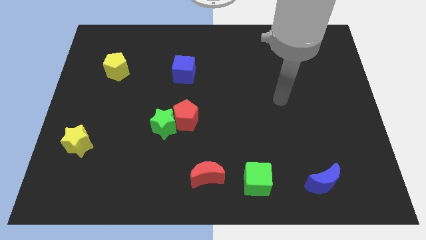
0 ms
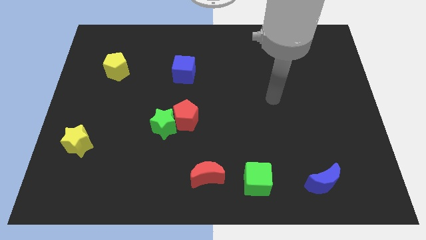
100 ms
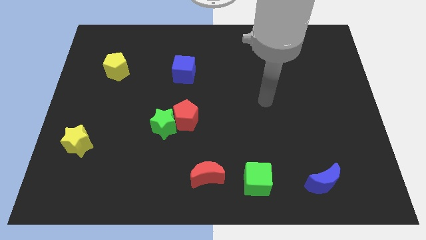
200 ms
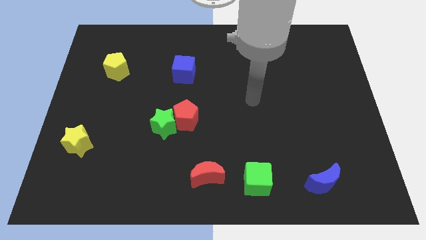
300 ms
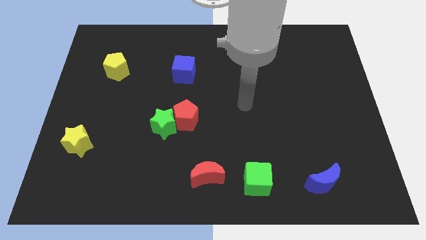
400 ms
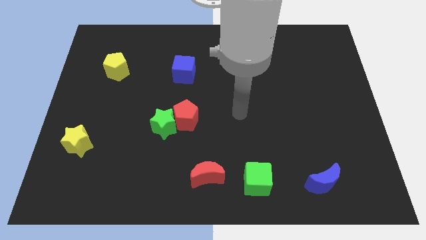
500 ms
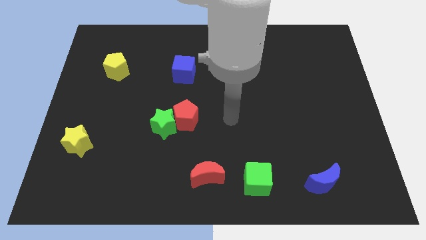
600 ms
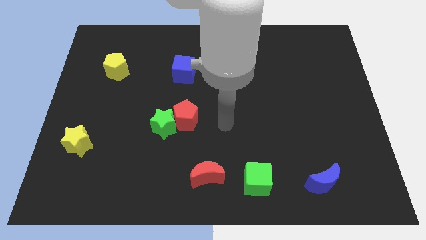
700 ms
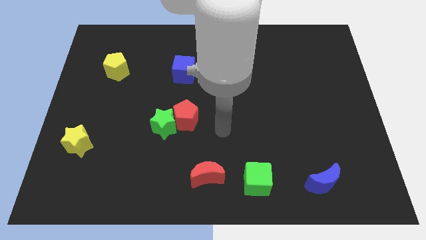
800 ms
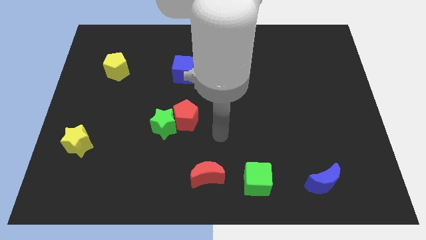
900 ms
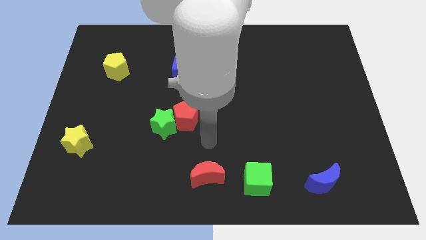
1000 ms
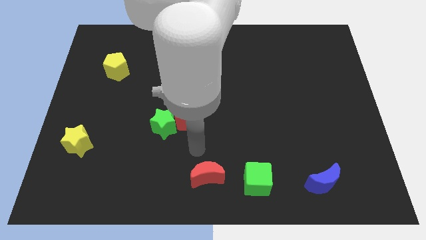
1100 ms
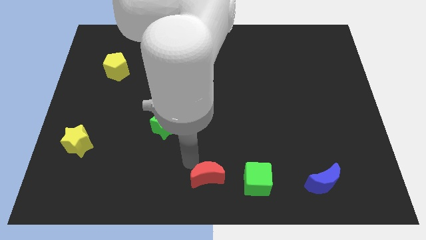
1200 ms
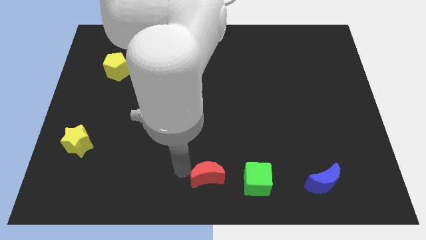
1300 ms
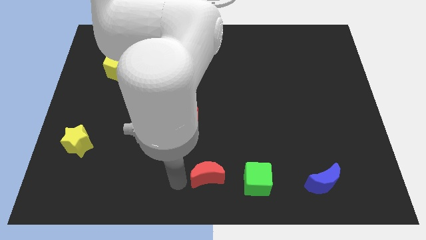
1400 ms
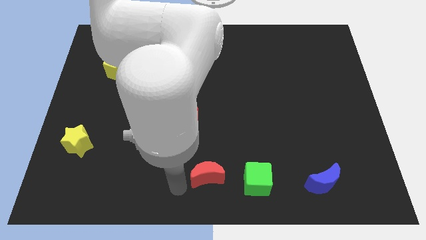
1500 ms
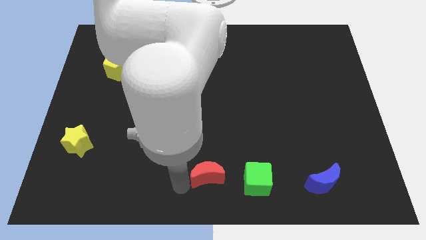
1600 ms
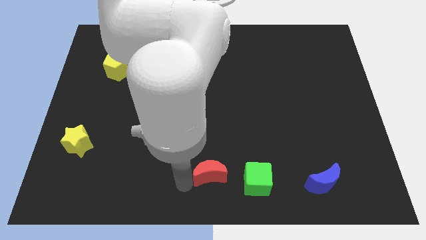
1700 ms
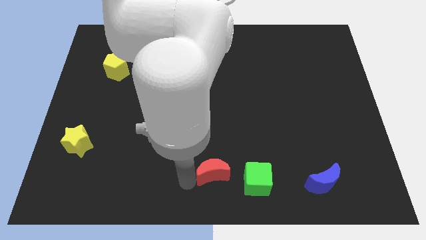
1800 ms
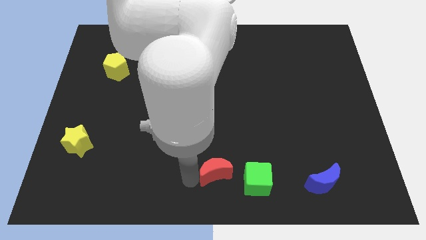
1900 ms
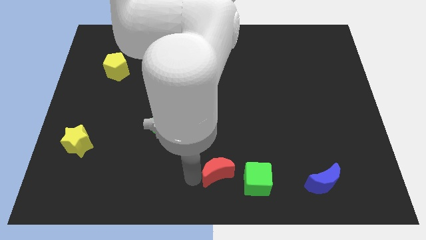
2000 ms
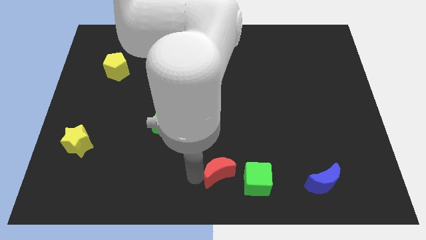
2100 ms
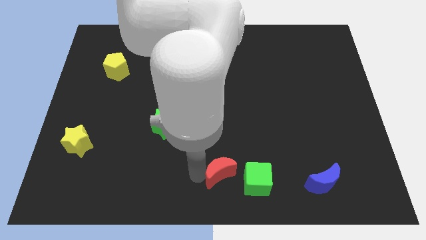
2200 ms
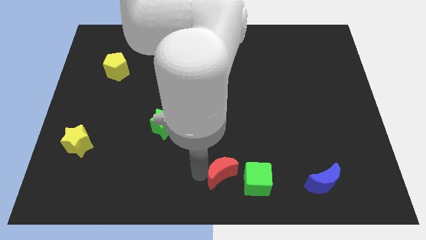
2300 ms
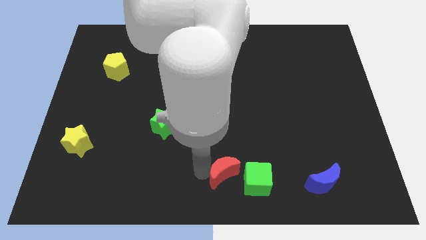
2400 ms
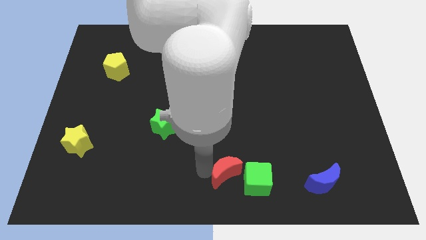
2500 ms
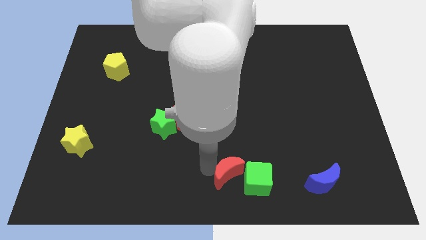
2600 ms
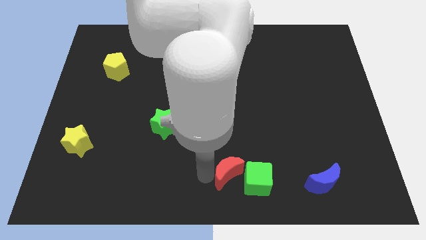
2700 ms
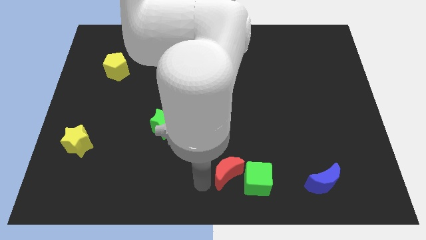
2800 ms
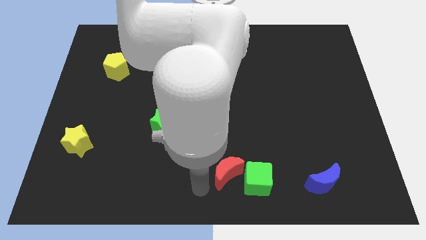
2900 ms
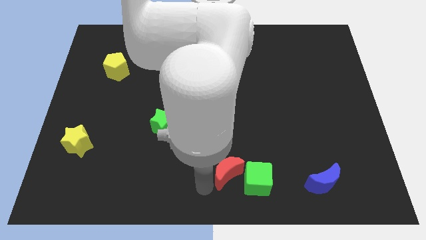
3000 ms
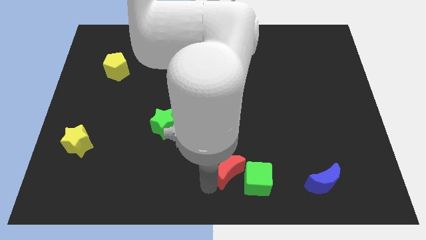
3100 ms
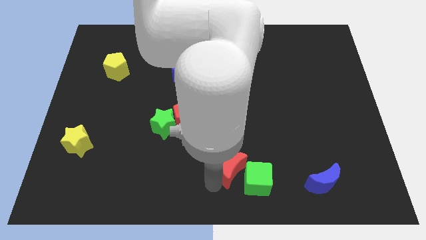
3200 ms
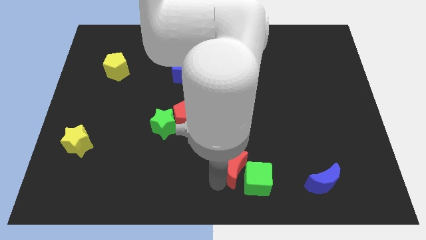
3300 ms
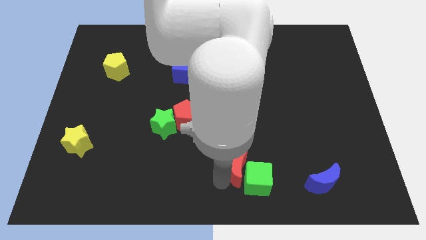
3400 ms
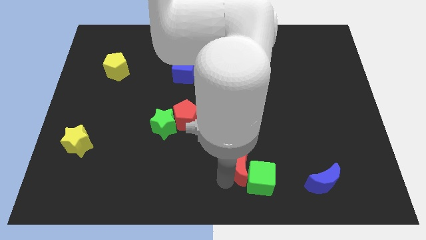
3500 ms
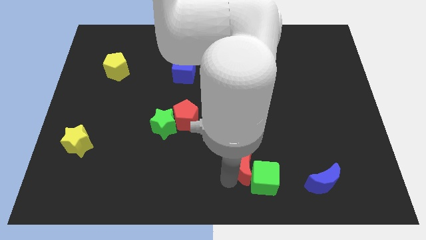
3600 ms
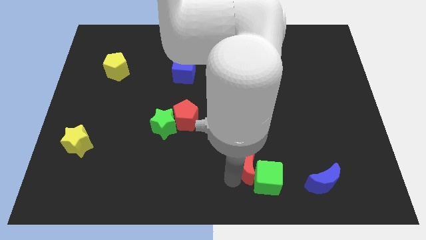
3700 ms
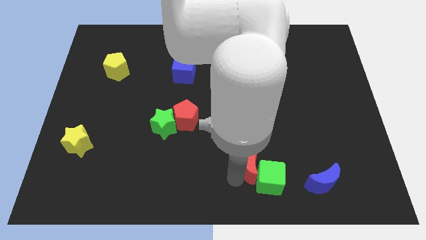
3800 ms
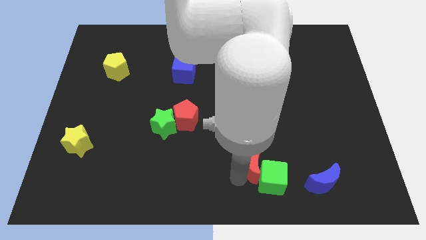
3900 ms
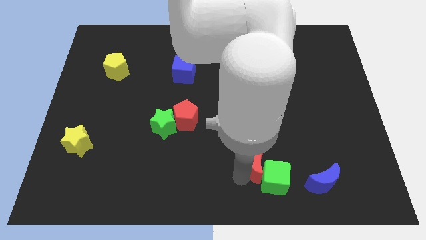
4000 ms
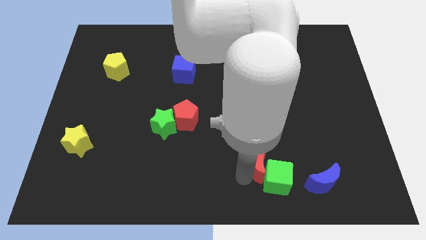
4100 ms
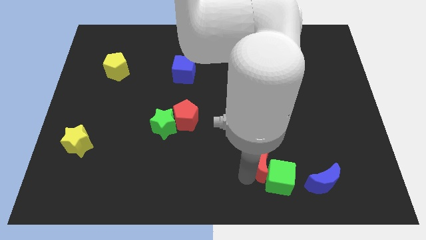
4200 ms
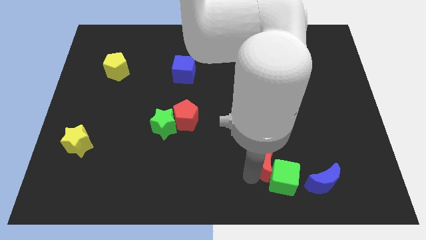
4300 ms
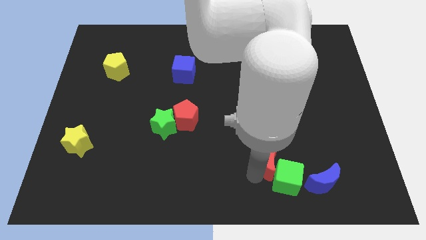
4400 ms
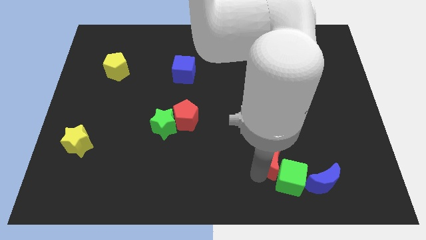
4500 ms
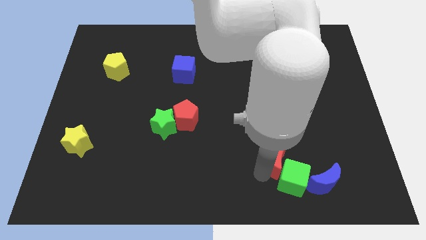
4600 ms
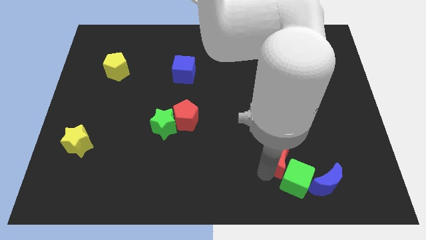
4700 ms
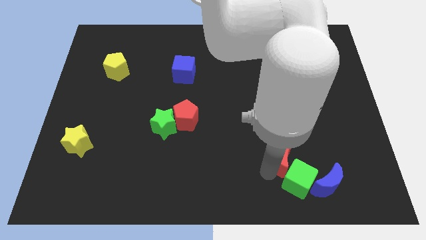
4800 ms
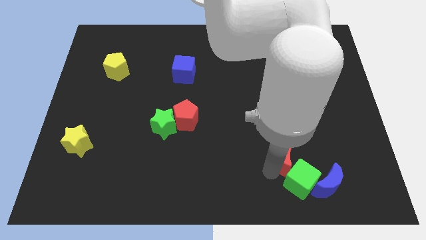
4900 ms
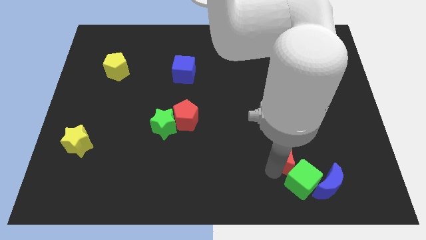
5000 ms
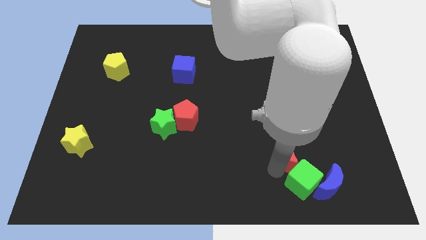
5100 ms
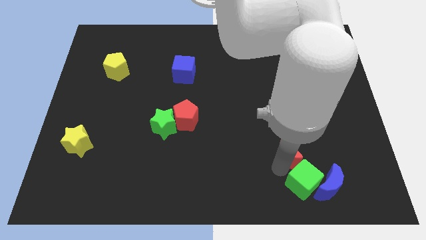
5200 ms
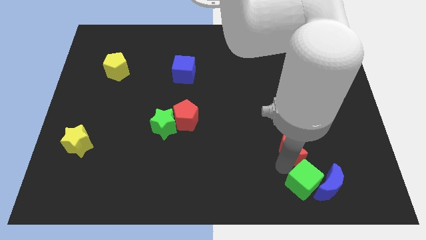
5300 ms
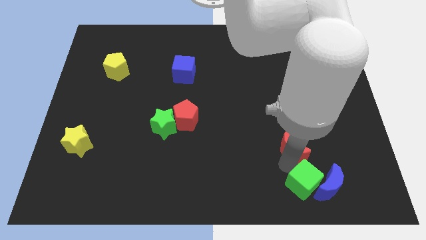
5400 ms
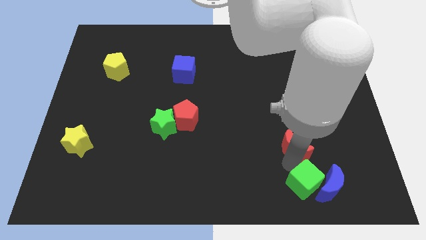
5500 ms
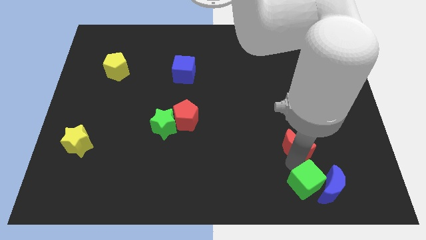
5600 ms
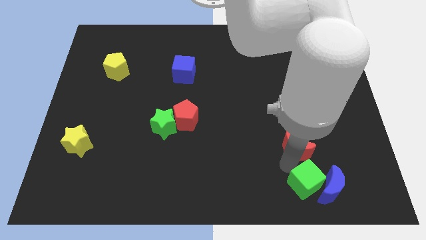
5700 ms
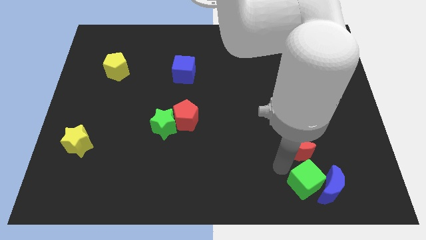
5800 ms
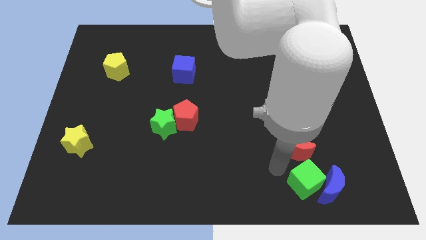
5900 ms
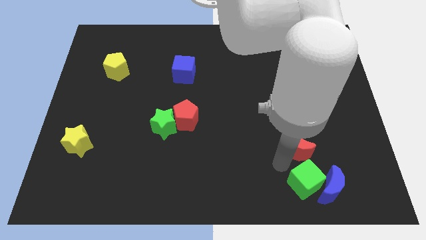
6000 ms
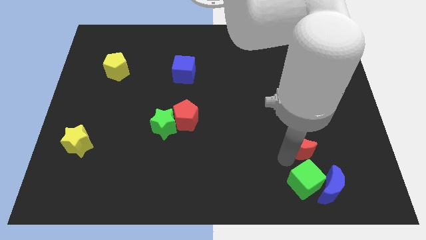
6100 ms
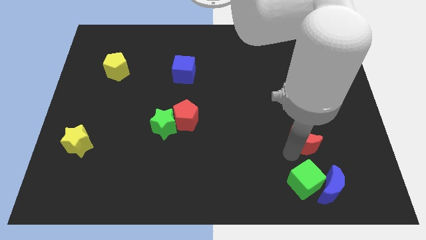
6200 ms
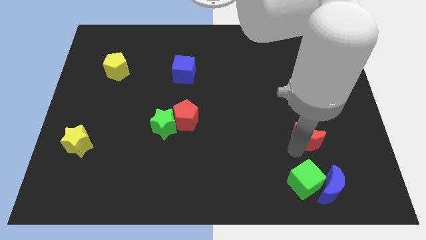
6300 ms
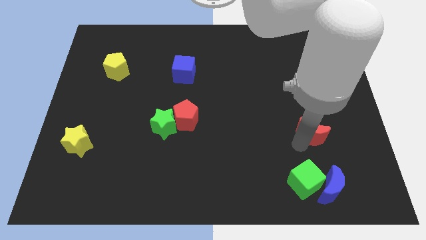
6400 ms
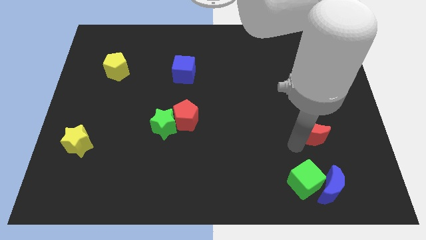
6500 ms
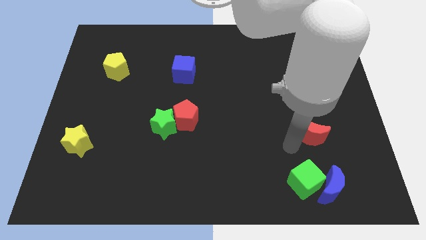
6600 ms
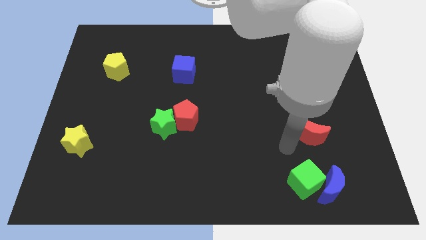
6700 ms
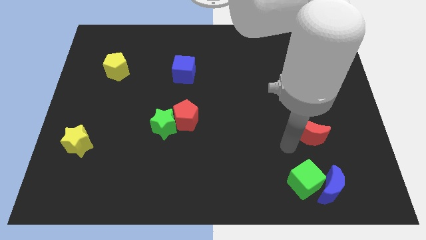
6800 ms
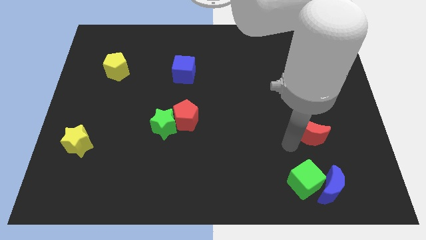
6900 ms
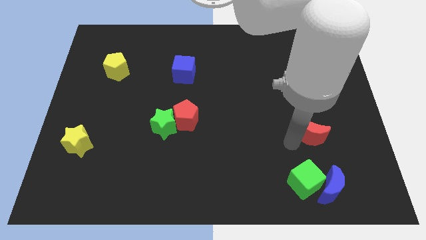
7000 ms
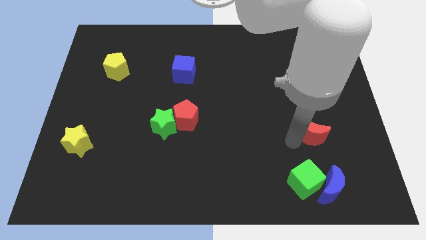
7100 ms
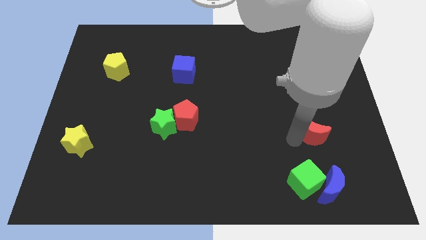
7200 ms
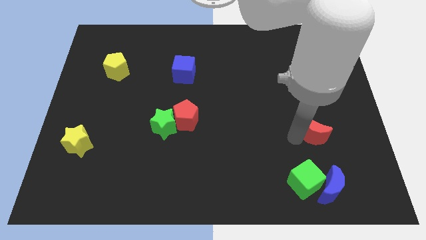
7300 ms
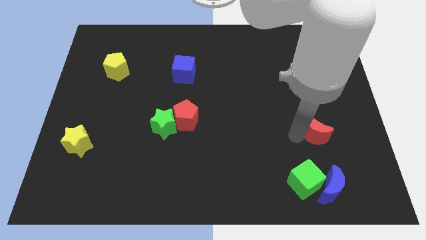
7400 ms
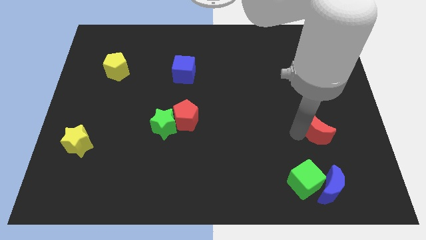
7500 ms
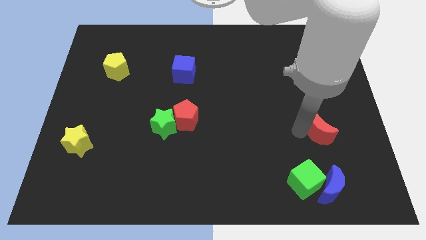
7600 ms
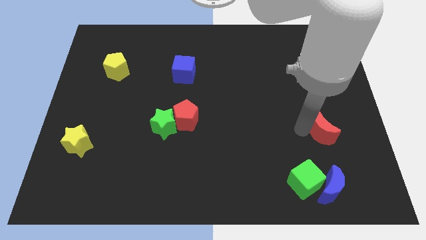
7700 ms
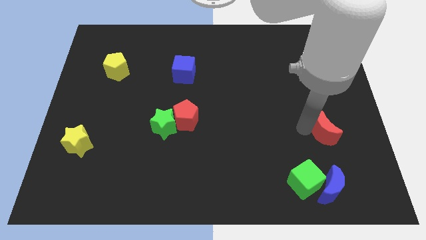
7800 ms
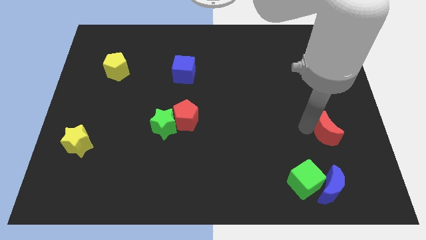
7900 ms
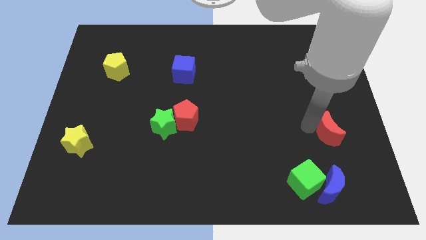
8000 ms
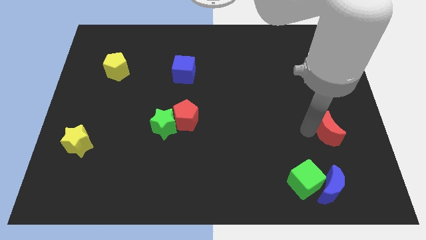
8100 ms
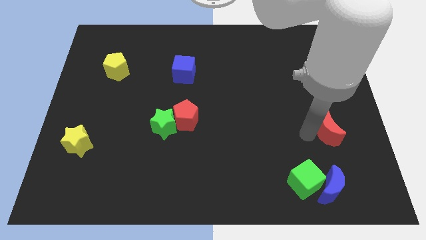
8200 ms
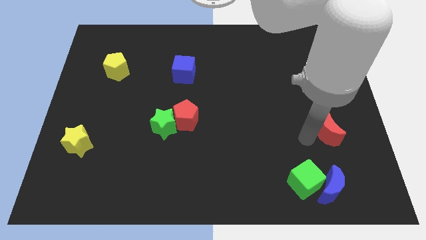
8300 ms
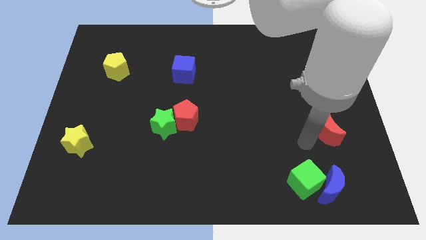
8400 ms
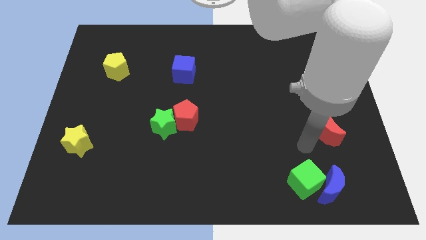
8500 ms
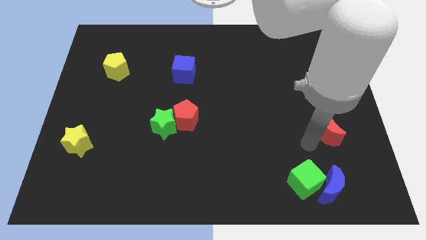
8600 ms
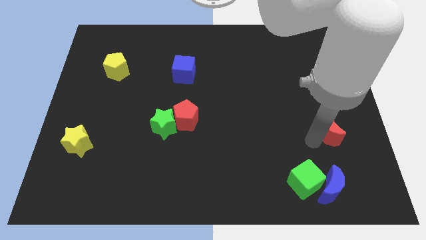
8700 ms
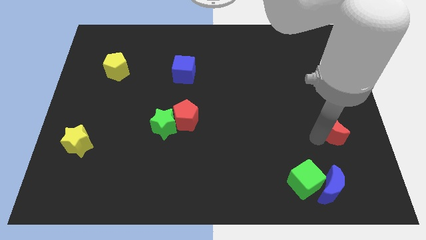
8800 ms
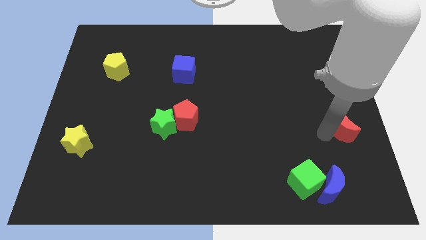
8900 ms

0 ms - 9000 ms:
slide the red moon to the center right
